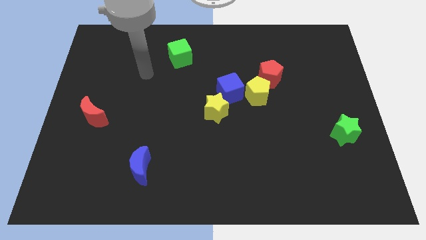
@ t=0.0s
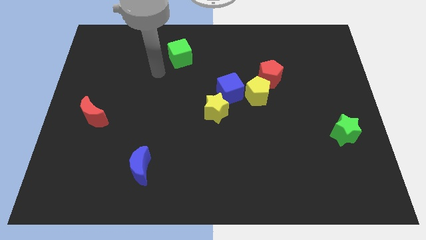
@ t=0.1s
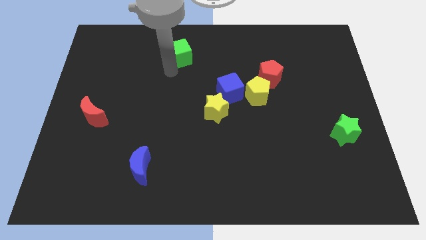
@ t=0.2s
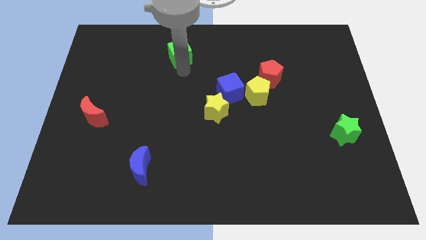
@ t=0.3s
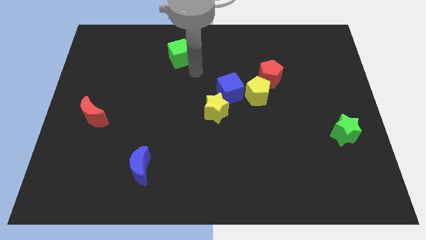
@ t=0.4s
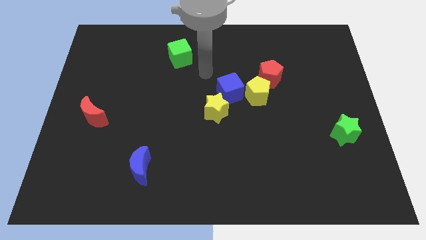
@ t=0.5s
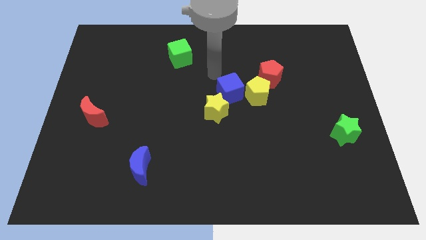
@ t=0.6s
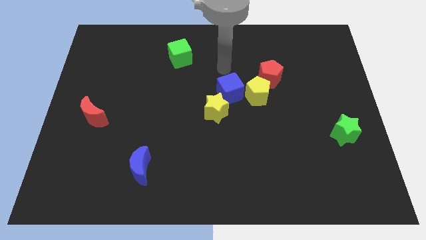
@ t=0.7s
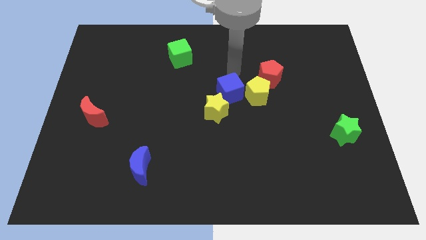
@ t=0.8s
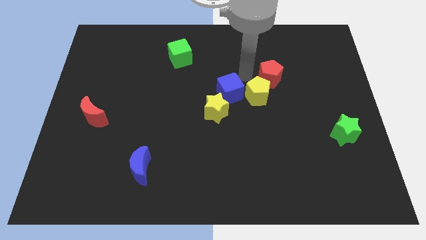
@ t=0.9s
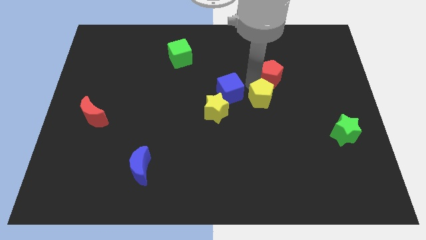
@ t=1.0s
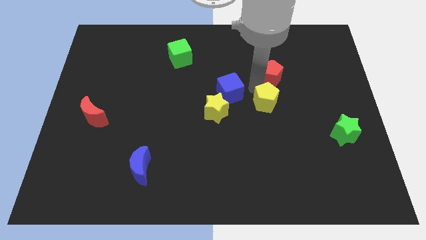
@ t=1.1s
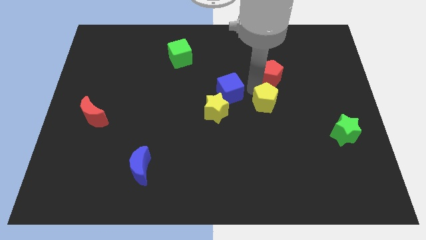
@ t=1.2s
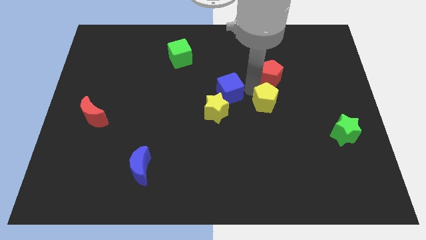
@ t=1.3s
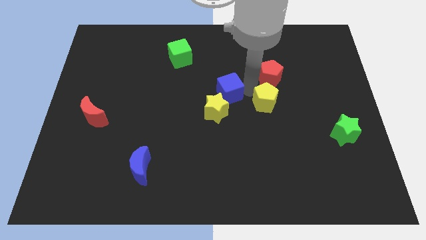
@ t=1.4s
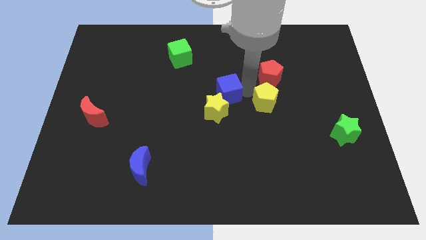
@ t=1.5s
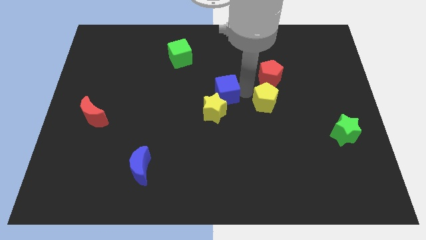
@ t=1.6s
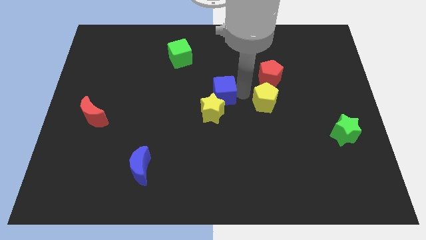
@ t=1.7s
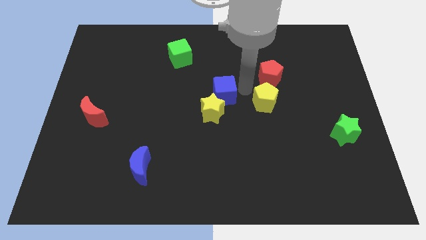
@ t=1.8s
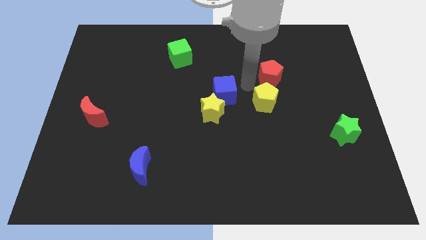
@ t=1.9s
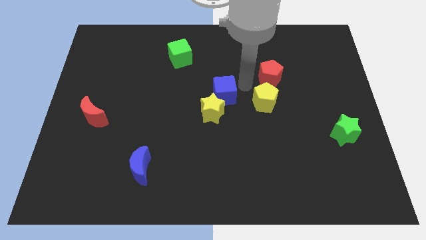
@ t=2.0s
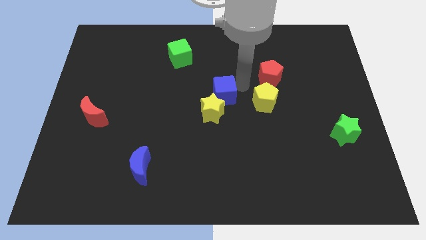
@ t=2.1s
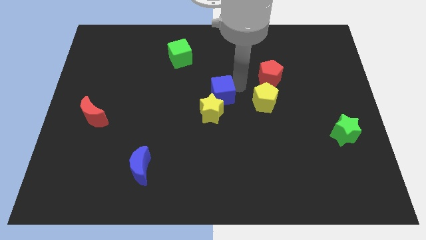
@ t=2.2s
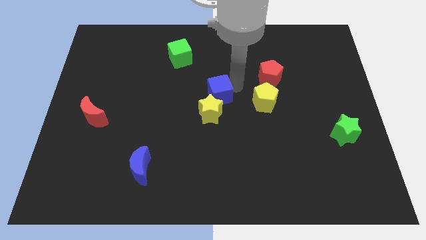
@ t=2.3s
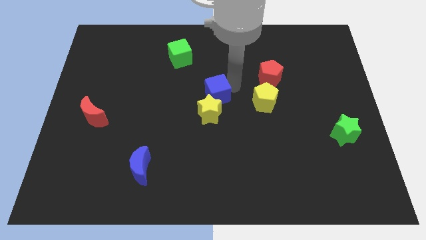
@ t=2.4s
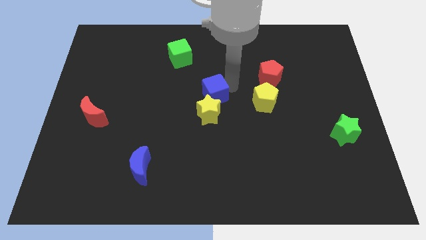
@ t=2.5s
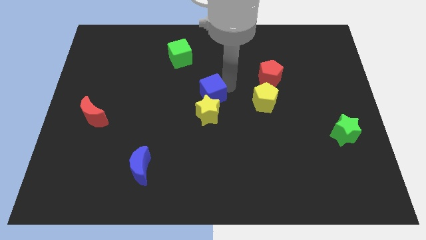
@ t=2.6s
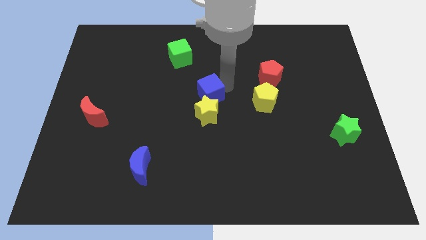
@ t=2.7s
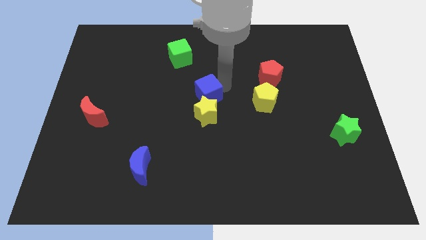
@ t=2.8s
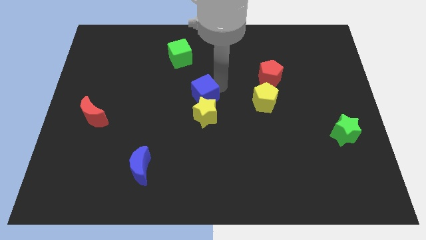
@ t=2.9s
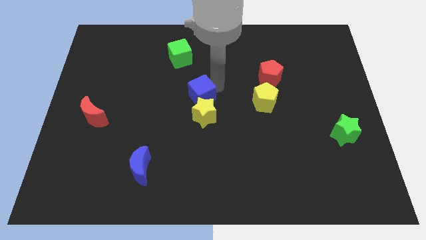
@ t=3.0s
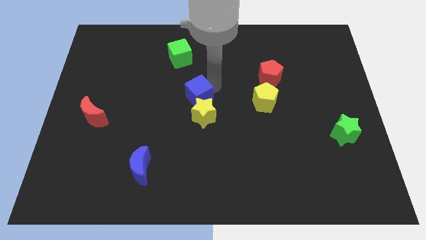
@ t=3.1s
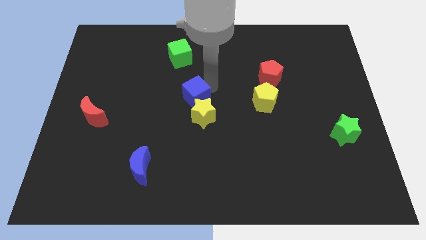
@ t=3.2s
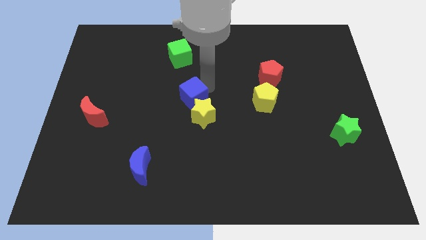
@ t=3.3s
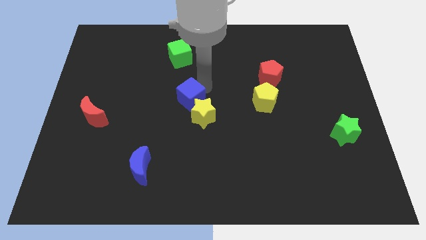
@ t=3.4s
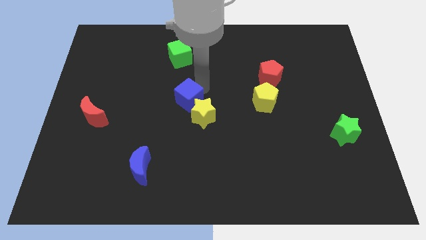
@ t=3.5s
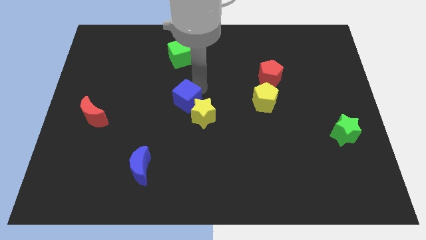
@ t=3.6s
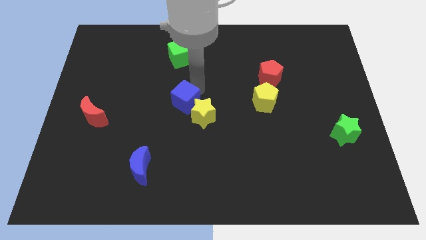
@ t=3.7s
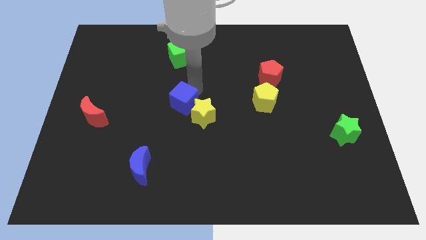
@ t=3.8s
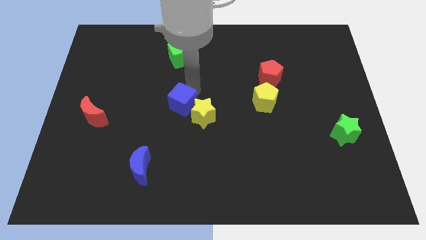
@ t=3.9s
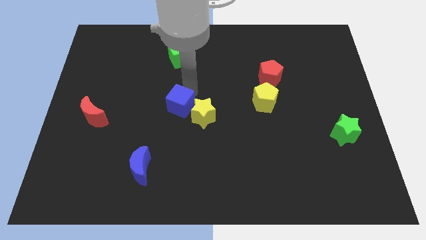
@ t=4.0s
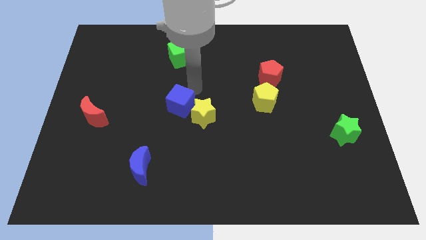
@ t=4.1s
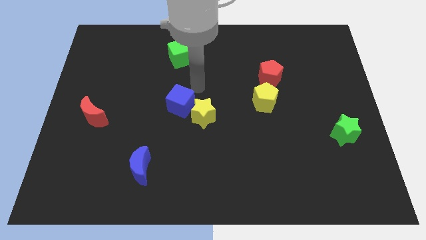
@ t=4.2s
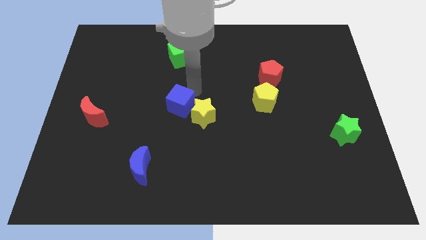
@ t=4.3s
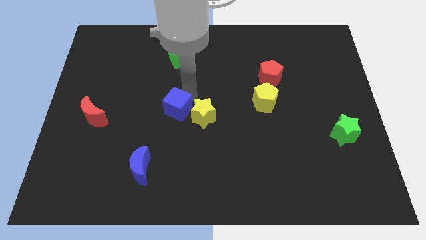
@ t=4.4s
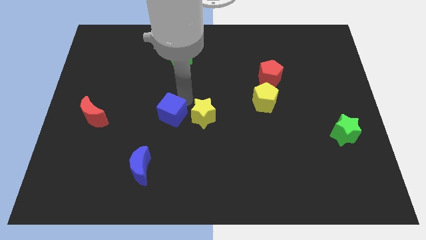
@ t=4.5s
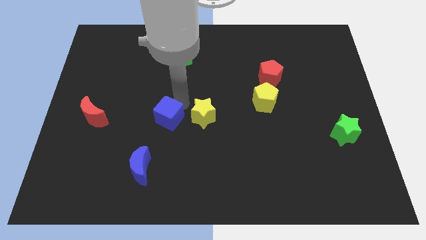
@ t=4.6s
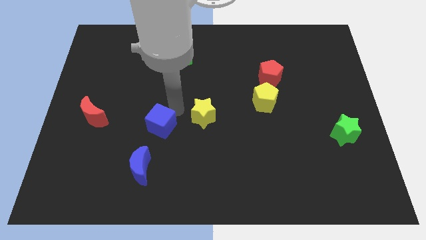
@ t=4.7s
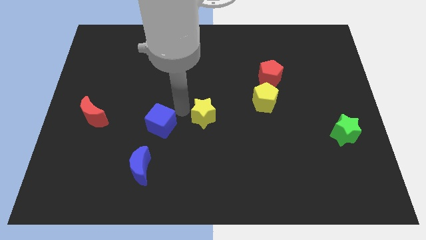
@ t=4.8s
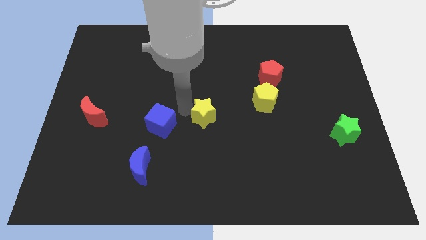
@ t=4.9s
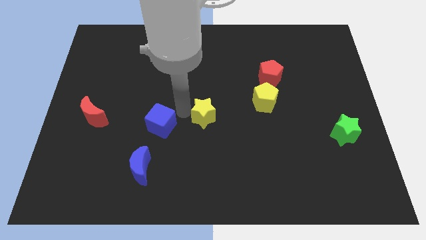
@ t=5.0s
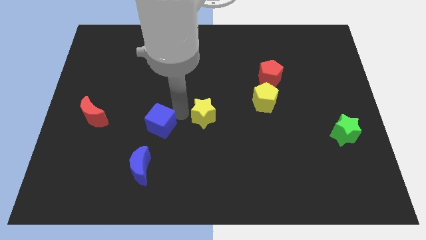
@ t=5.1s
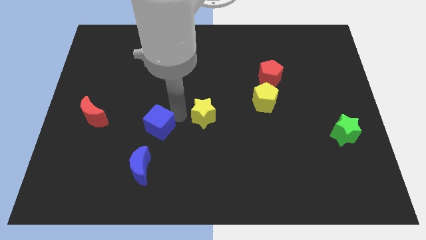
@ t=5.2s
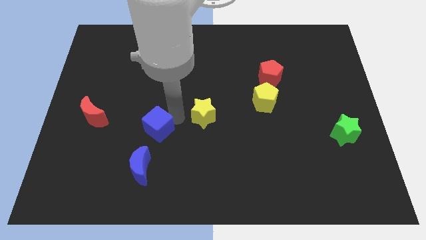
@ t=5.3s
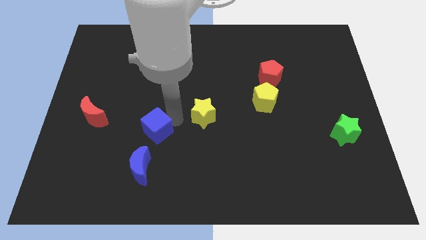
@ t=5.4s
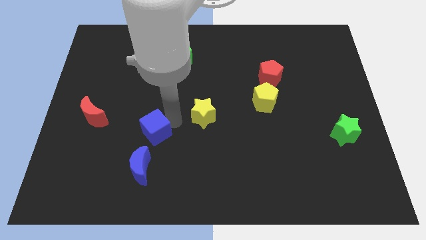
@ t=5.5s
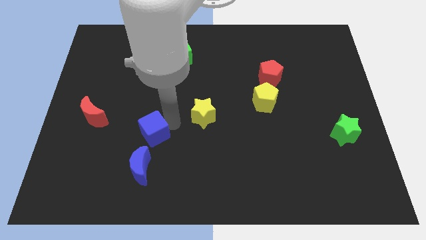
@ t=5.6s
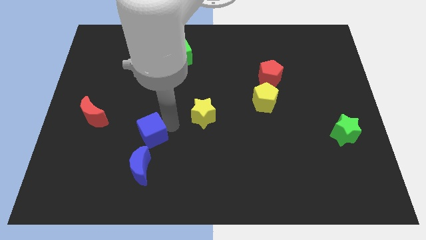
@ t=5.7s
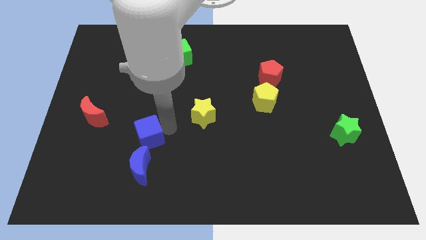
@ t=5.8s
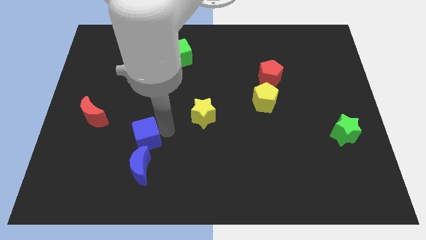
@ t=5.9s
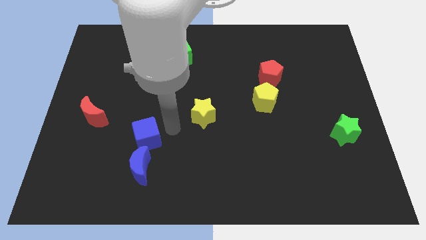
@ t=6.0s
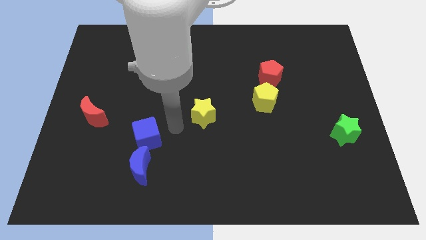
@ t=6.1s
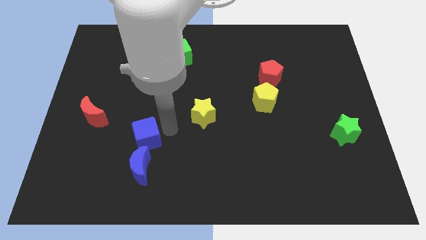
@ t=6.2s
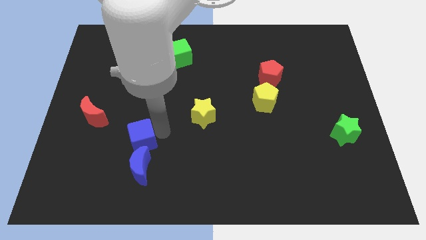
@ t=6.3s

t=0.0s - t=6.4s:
put the blue cube to the top left side of the blue moon

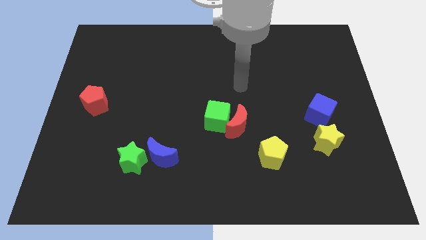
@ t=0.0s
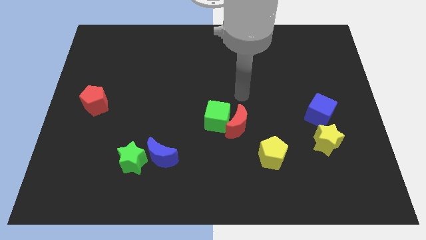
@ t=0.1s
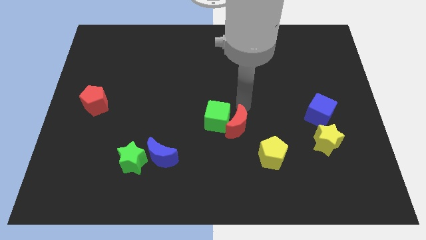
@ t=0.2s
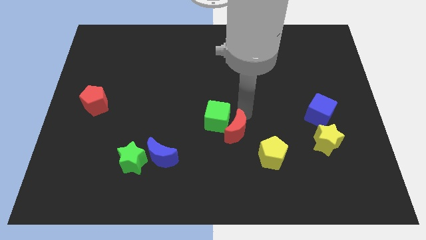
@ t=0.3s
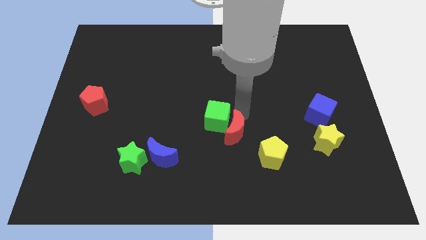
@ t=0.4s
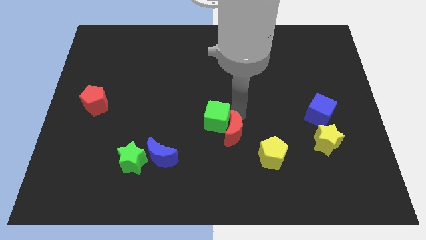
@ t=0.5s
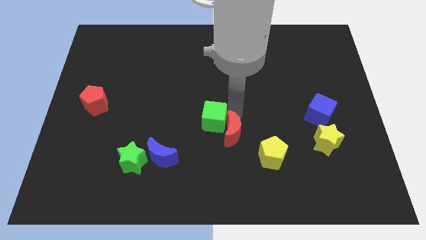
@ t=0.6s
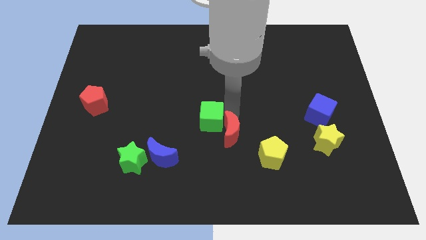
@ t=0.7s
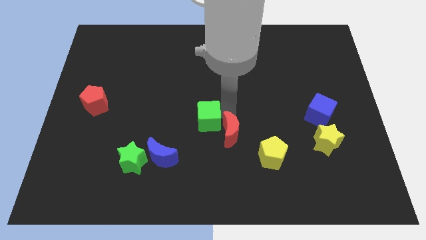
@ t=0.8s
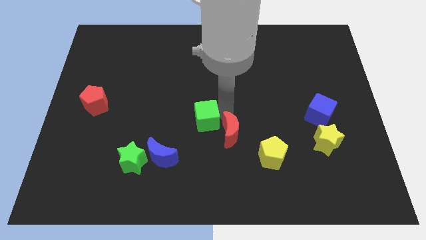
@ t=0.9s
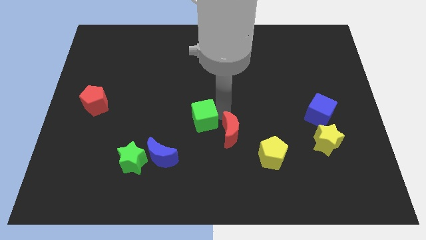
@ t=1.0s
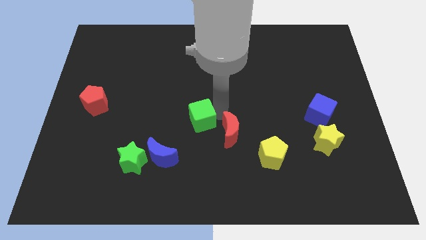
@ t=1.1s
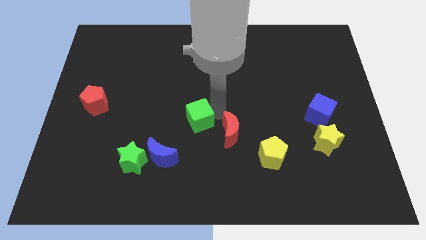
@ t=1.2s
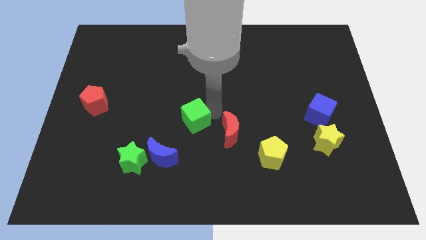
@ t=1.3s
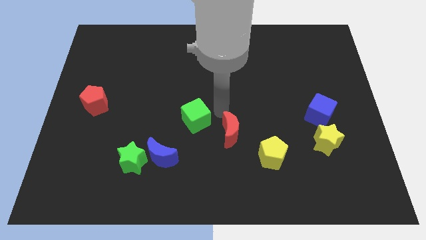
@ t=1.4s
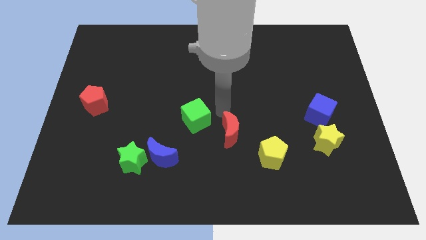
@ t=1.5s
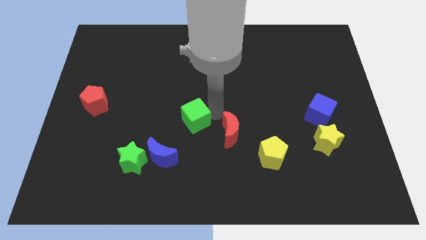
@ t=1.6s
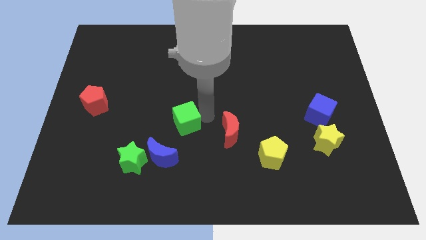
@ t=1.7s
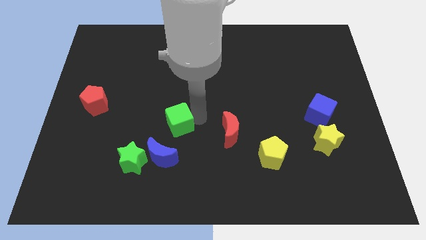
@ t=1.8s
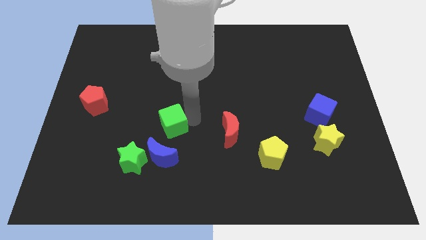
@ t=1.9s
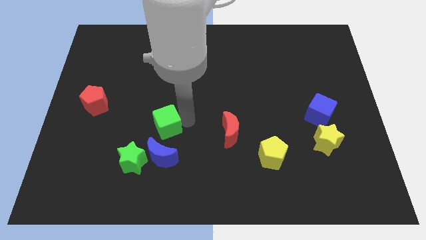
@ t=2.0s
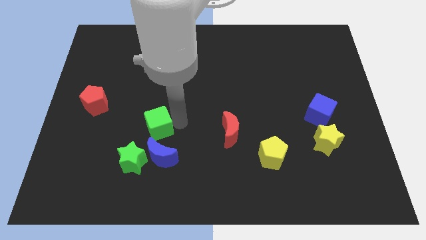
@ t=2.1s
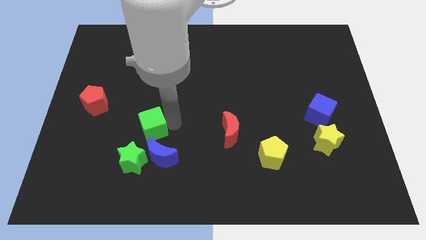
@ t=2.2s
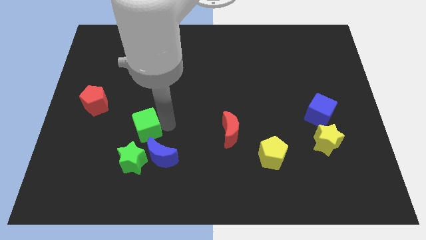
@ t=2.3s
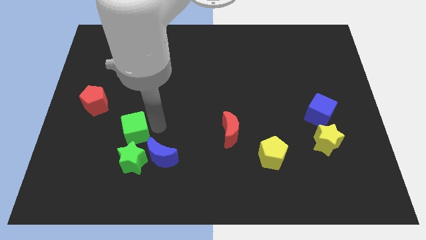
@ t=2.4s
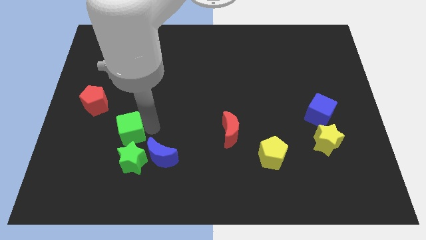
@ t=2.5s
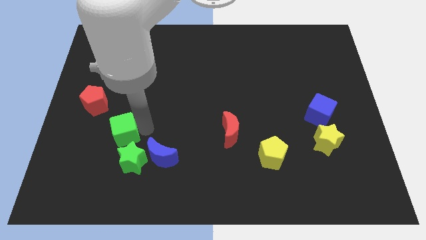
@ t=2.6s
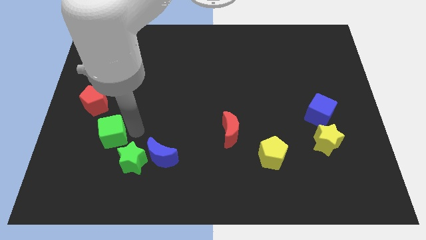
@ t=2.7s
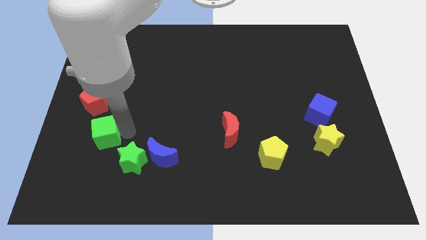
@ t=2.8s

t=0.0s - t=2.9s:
move the green cube to the bottom of the red pentagon
